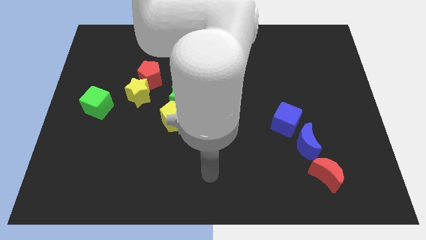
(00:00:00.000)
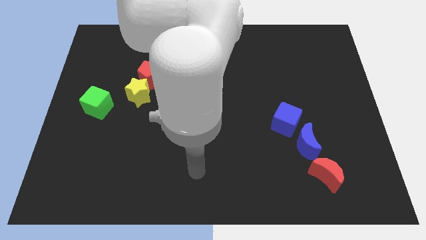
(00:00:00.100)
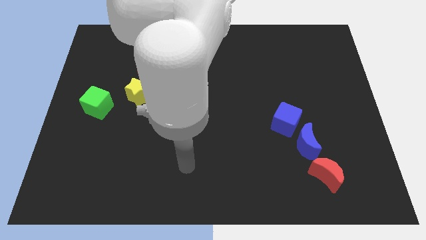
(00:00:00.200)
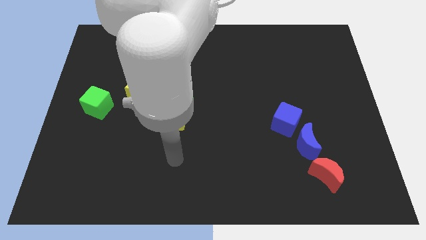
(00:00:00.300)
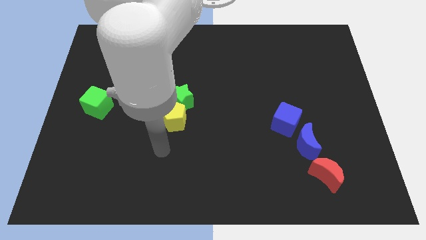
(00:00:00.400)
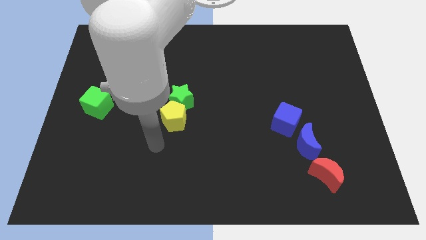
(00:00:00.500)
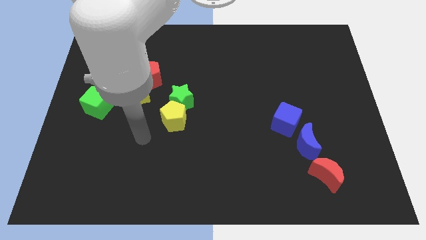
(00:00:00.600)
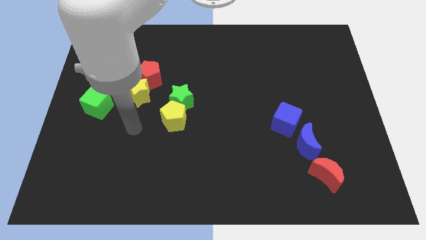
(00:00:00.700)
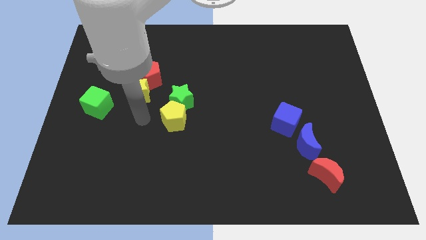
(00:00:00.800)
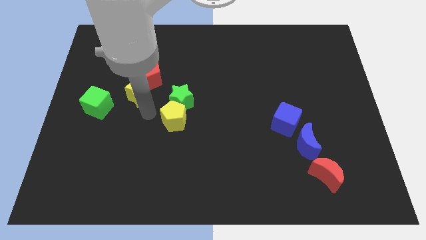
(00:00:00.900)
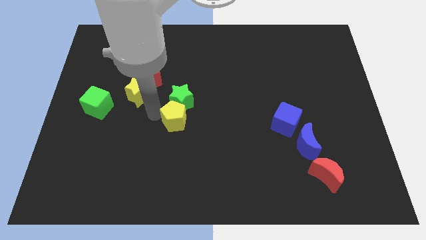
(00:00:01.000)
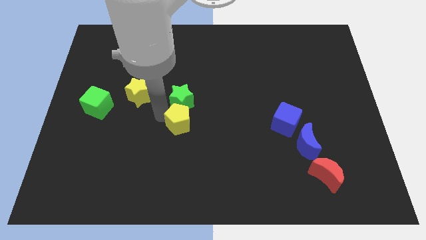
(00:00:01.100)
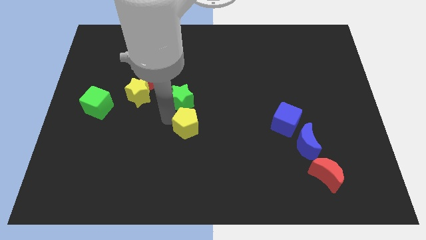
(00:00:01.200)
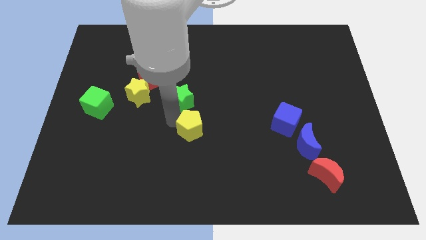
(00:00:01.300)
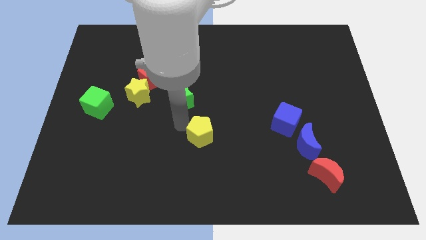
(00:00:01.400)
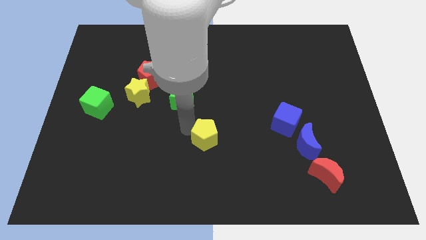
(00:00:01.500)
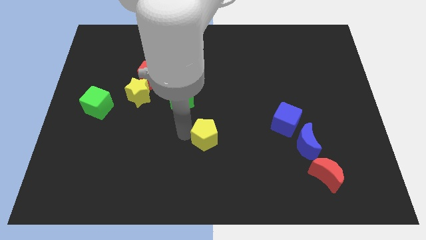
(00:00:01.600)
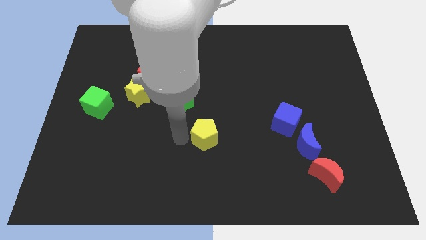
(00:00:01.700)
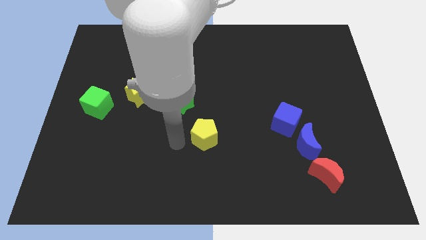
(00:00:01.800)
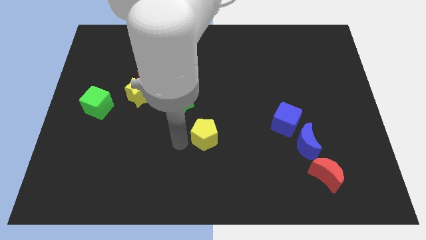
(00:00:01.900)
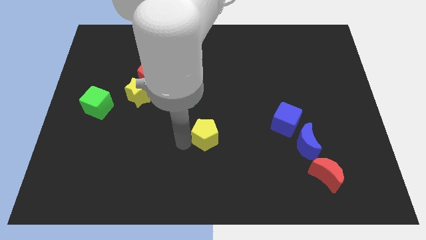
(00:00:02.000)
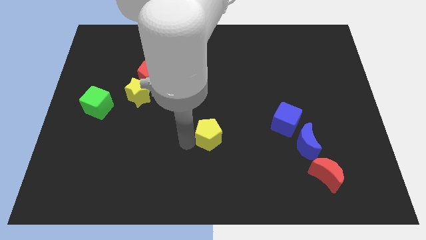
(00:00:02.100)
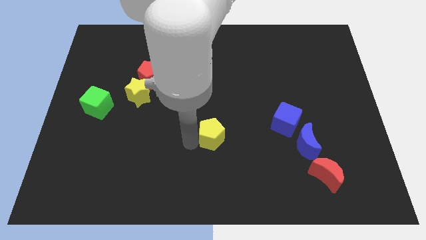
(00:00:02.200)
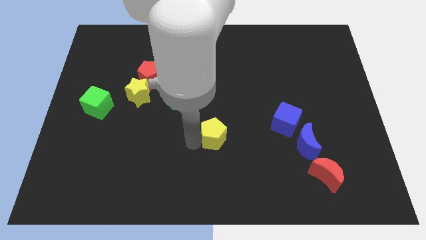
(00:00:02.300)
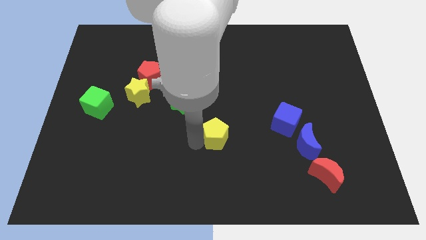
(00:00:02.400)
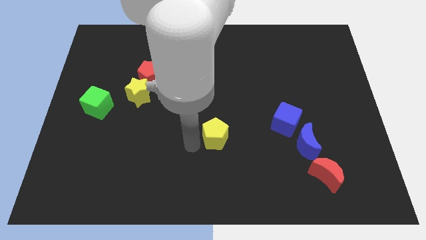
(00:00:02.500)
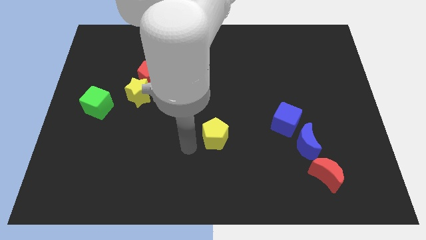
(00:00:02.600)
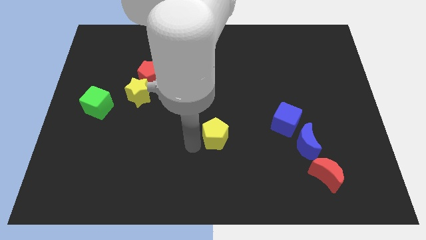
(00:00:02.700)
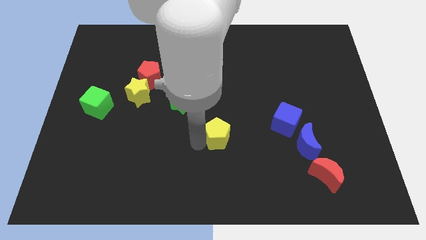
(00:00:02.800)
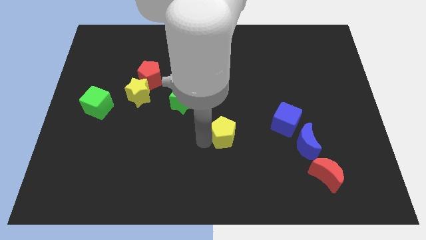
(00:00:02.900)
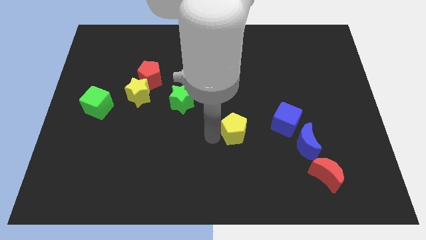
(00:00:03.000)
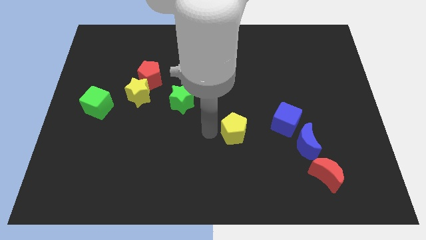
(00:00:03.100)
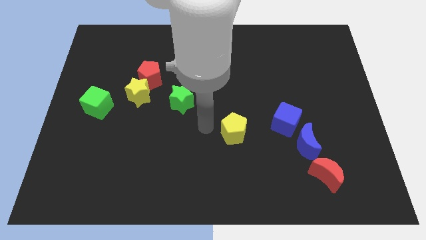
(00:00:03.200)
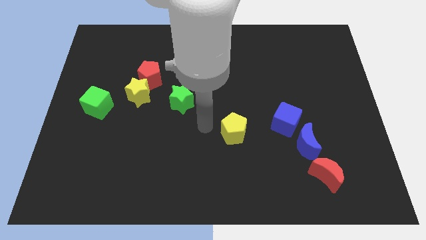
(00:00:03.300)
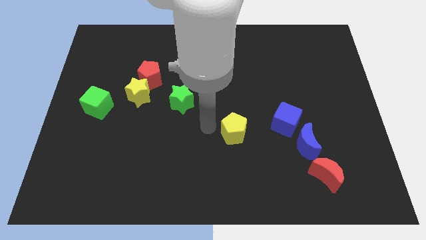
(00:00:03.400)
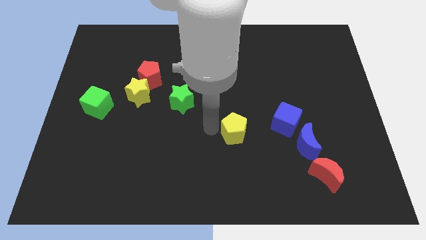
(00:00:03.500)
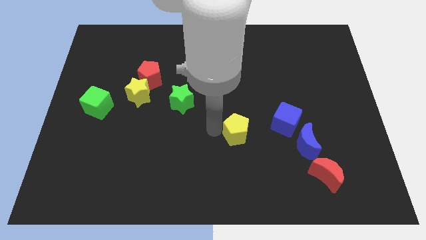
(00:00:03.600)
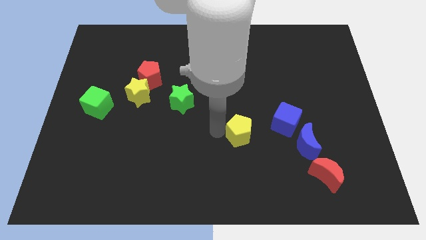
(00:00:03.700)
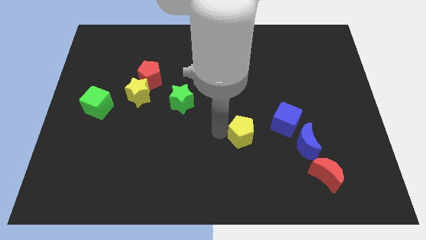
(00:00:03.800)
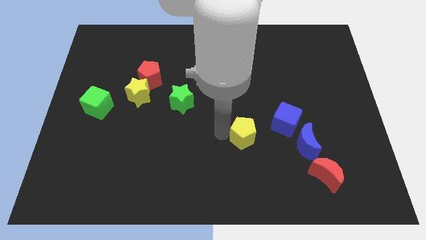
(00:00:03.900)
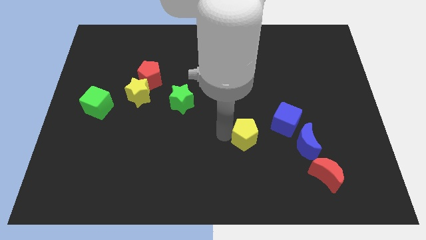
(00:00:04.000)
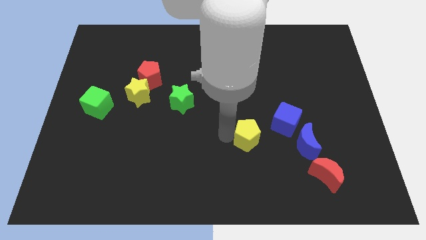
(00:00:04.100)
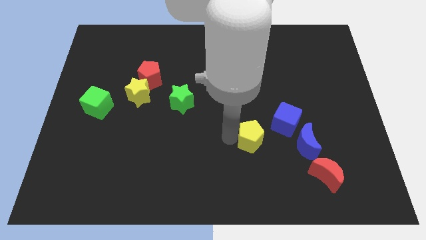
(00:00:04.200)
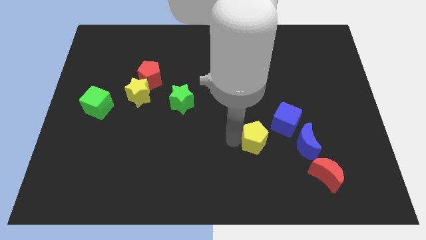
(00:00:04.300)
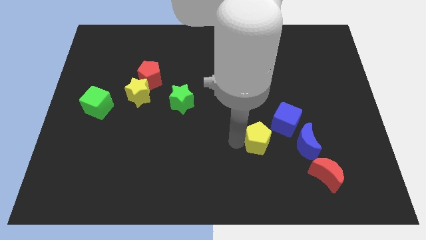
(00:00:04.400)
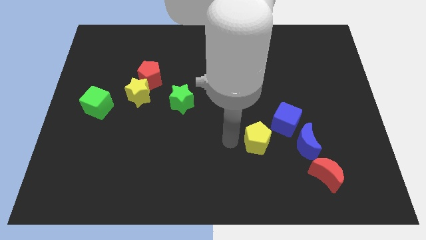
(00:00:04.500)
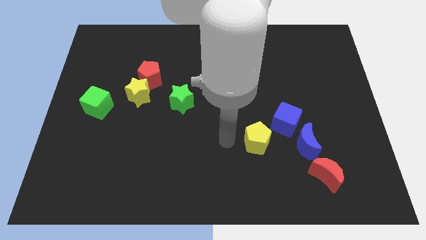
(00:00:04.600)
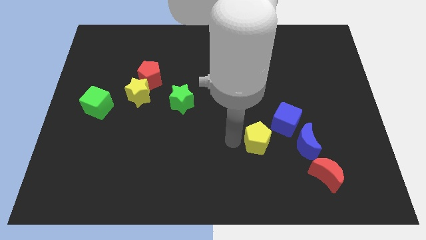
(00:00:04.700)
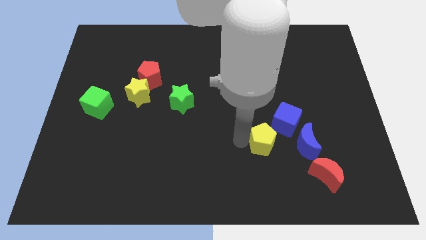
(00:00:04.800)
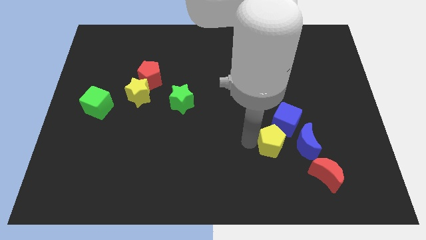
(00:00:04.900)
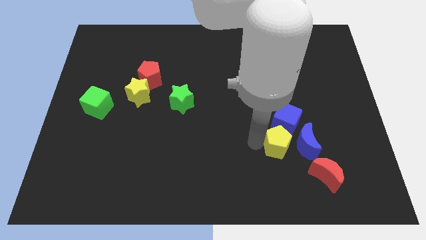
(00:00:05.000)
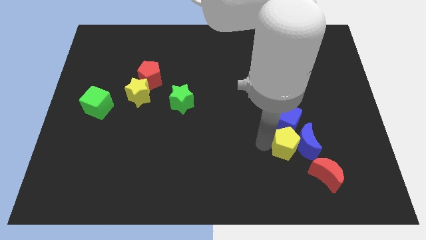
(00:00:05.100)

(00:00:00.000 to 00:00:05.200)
slide the yellow pentagon to the blue moon

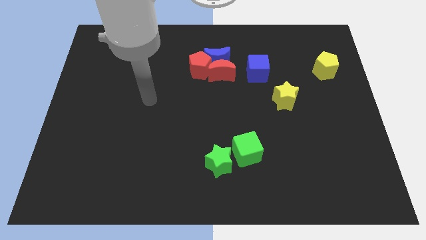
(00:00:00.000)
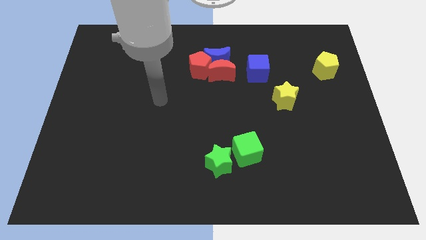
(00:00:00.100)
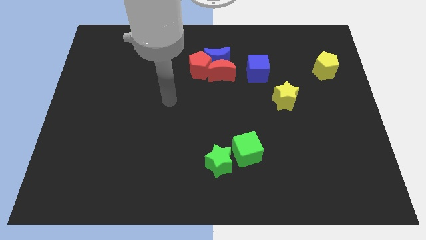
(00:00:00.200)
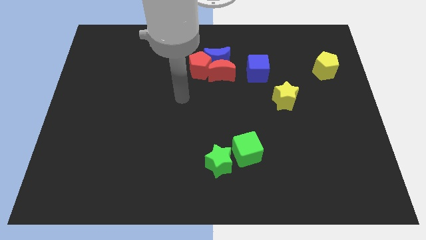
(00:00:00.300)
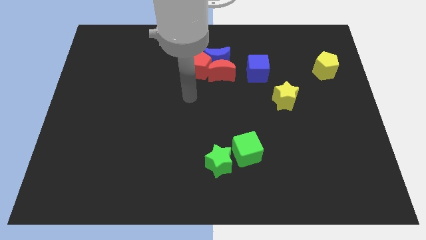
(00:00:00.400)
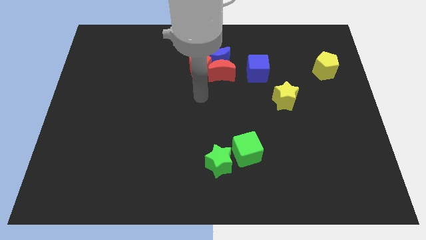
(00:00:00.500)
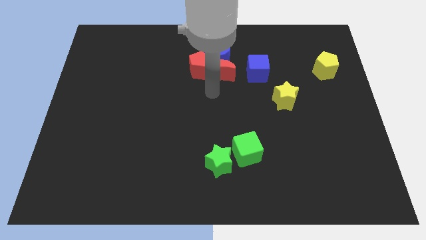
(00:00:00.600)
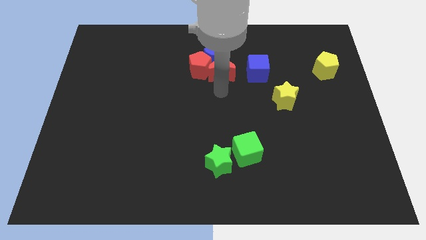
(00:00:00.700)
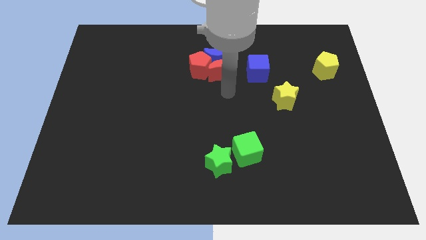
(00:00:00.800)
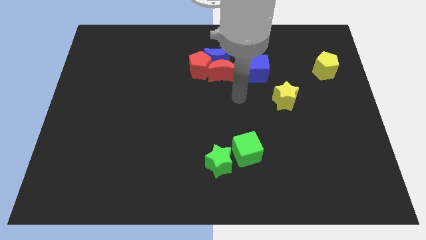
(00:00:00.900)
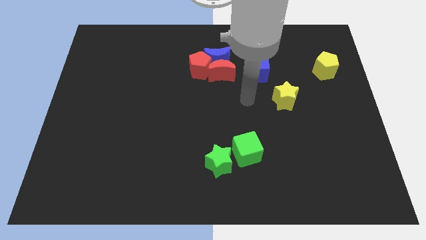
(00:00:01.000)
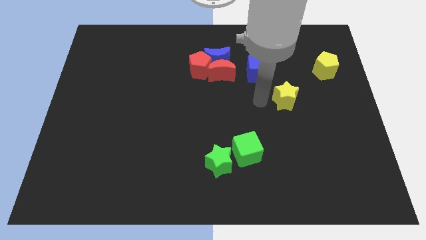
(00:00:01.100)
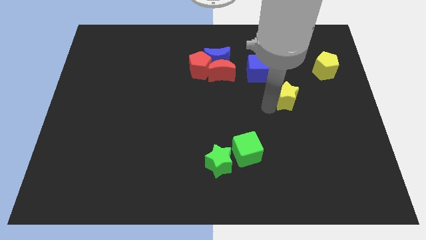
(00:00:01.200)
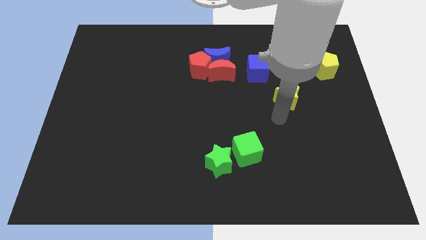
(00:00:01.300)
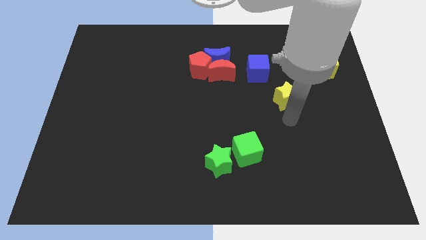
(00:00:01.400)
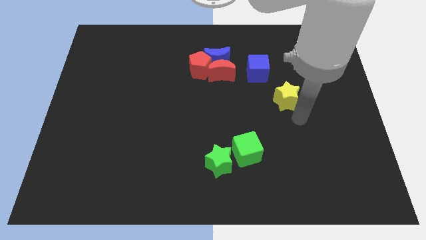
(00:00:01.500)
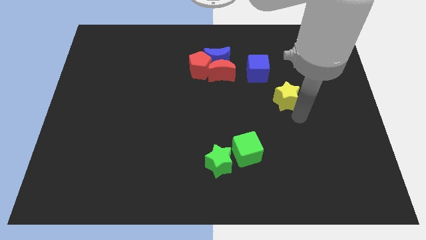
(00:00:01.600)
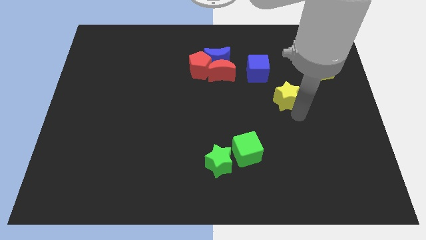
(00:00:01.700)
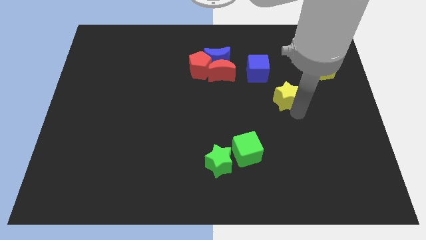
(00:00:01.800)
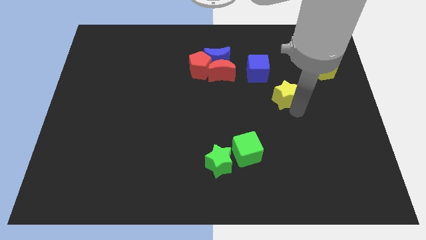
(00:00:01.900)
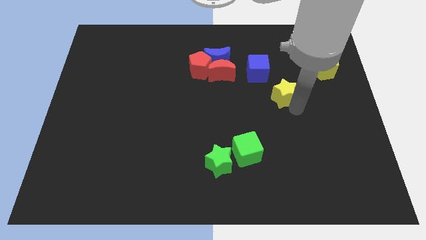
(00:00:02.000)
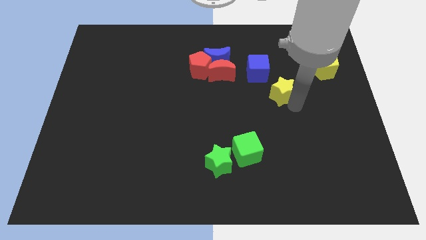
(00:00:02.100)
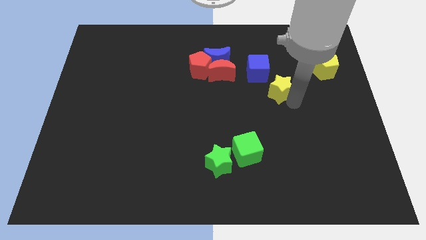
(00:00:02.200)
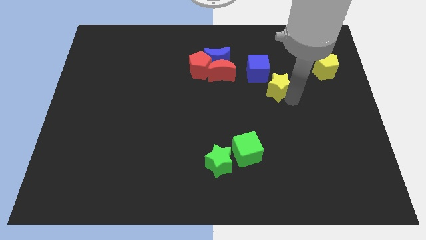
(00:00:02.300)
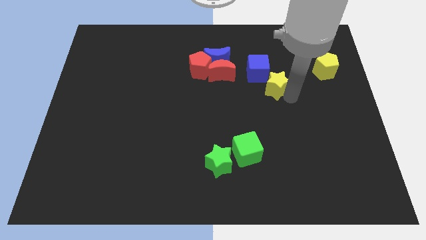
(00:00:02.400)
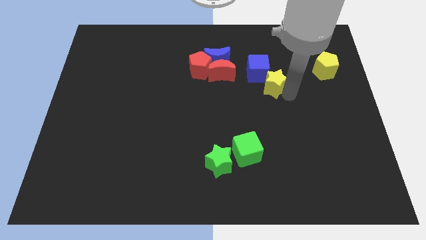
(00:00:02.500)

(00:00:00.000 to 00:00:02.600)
move the yellow star to the blue cube

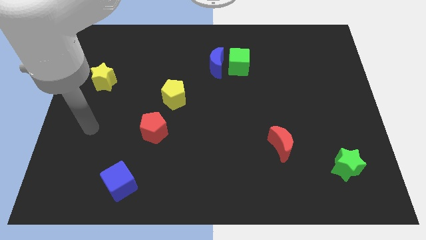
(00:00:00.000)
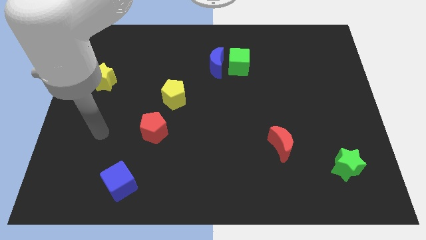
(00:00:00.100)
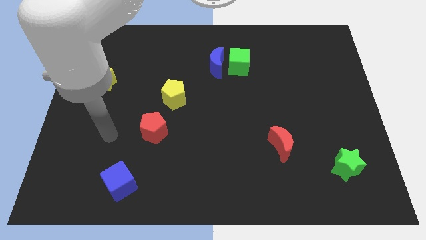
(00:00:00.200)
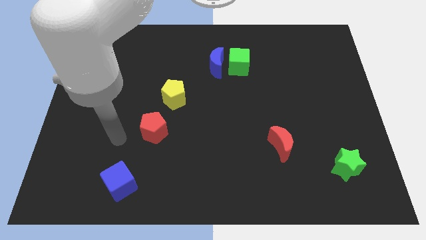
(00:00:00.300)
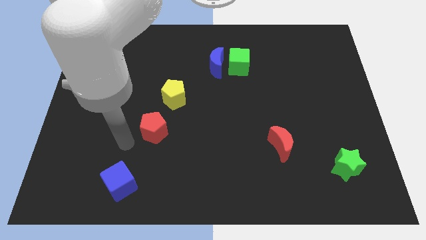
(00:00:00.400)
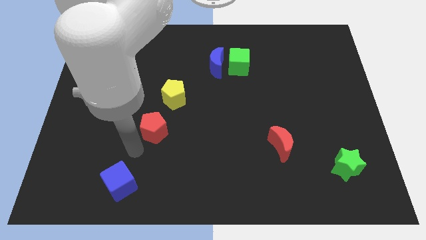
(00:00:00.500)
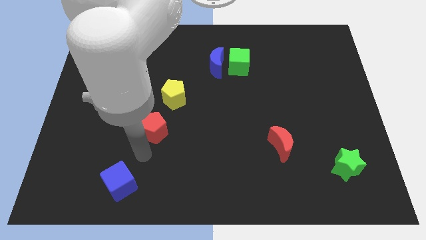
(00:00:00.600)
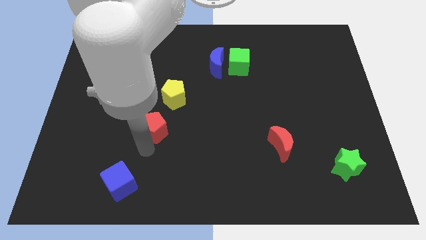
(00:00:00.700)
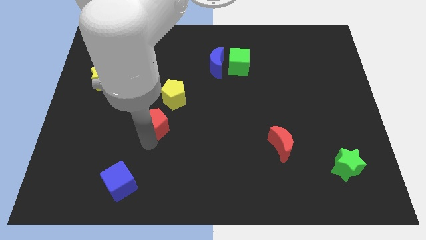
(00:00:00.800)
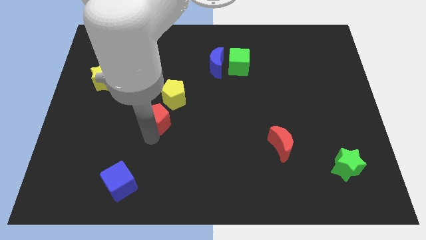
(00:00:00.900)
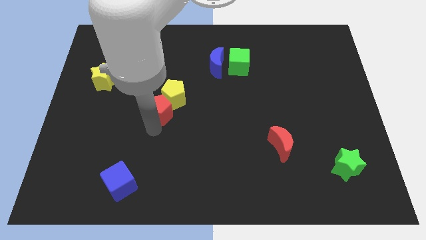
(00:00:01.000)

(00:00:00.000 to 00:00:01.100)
move the red pentagon next to the yellow pentagon
